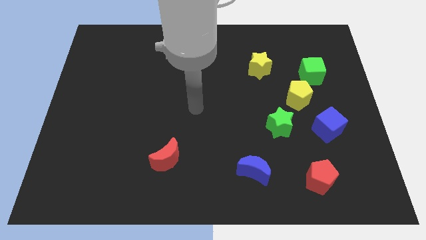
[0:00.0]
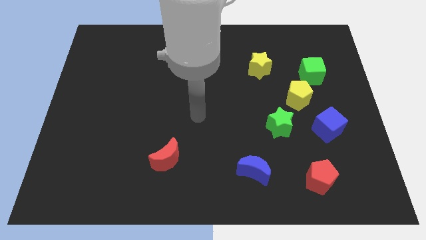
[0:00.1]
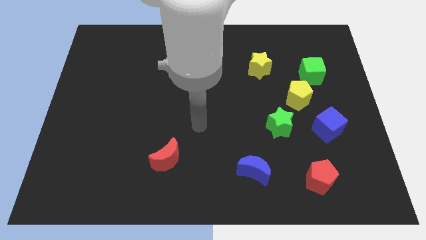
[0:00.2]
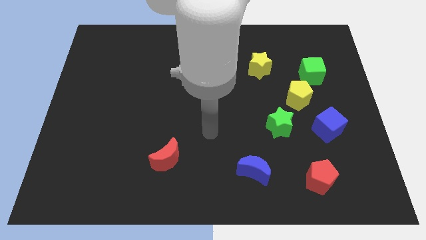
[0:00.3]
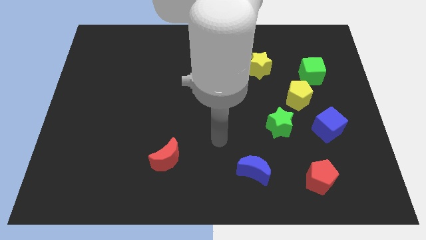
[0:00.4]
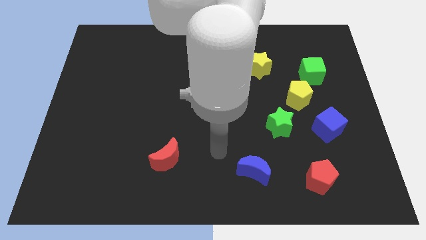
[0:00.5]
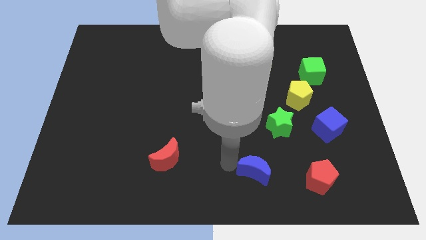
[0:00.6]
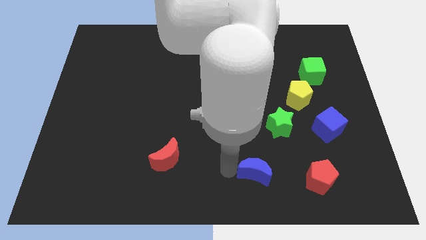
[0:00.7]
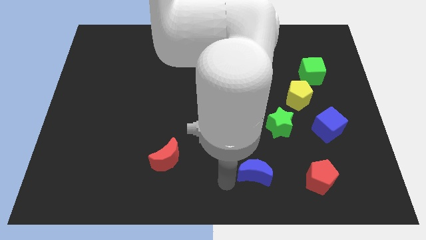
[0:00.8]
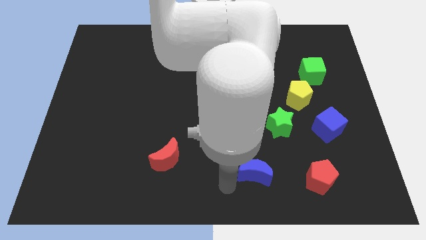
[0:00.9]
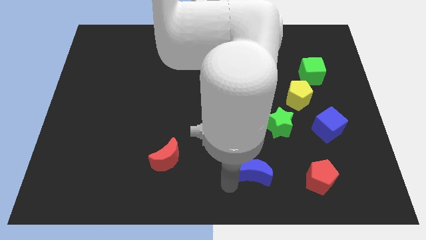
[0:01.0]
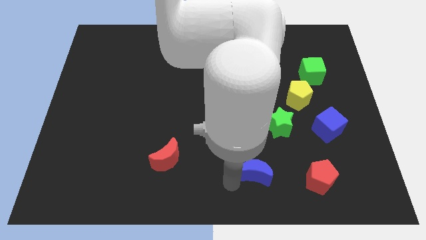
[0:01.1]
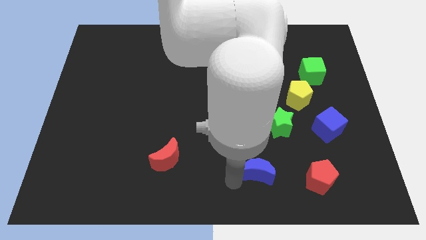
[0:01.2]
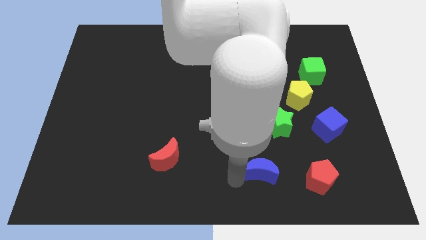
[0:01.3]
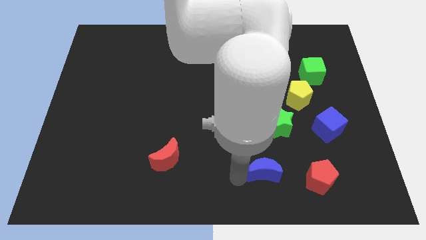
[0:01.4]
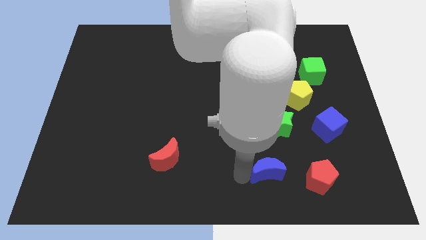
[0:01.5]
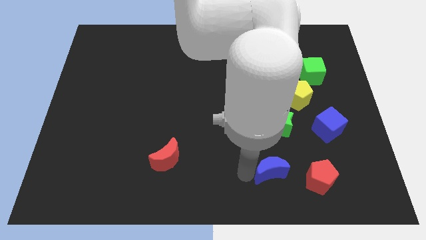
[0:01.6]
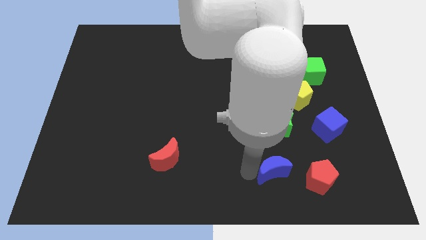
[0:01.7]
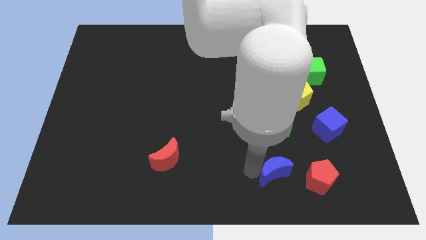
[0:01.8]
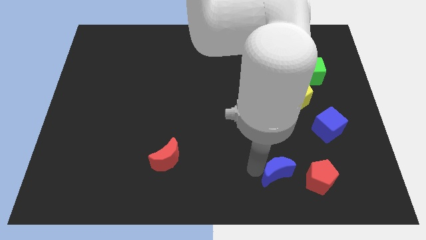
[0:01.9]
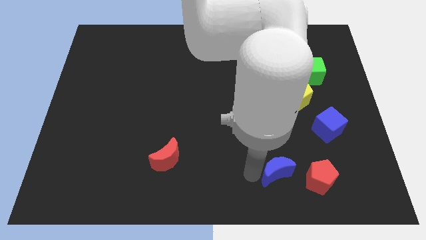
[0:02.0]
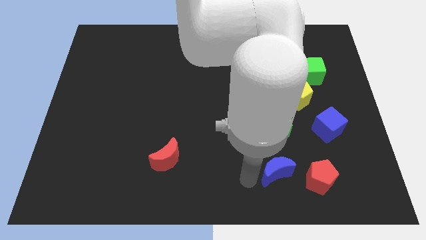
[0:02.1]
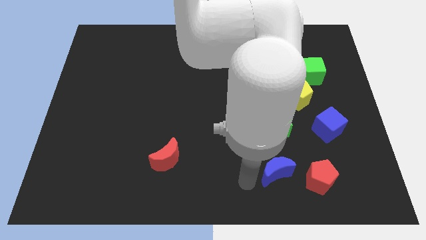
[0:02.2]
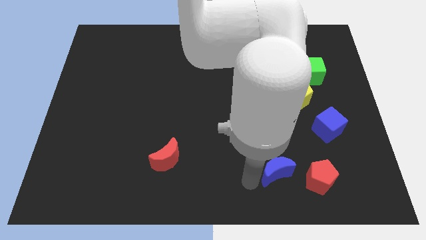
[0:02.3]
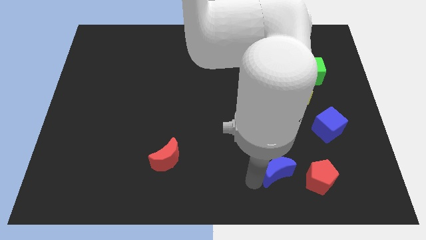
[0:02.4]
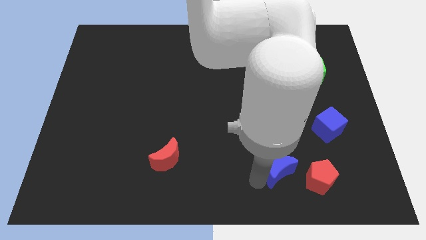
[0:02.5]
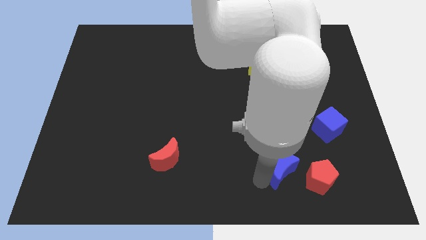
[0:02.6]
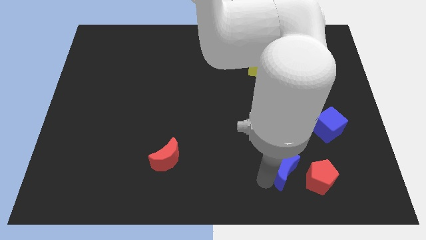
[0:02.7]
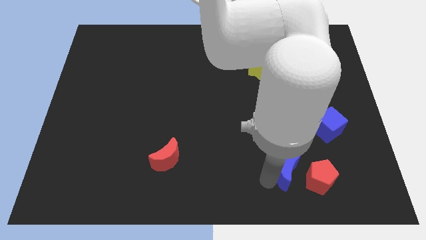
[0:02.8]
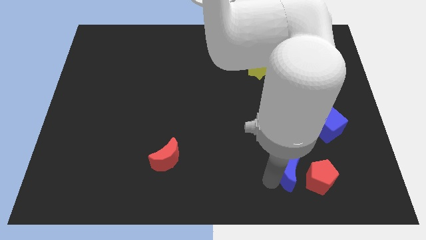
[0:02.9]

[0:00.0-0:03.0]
move the blue moon slightly right

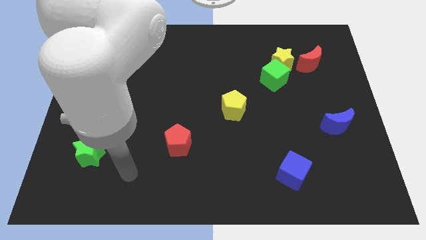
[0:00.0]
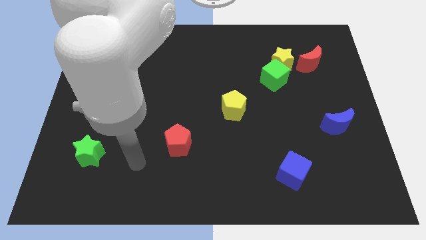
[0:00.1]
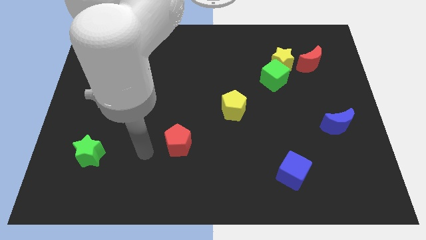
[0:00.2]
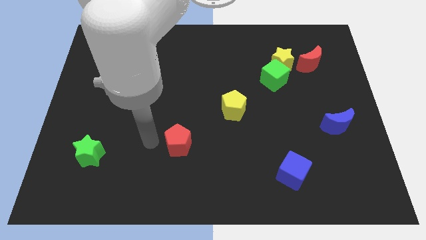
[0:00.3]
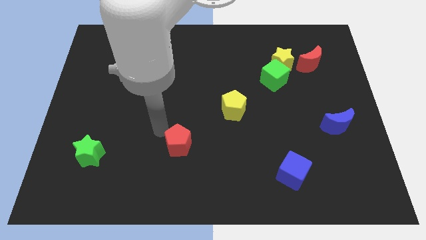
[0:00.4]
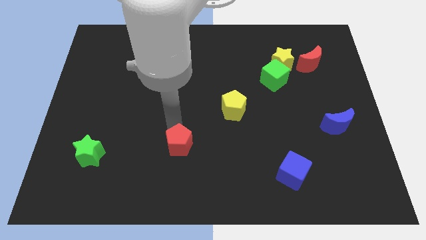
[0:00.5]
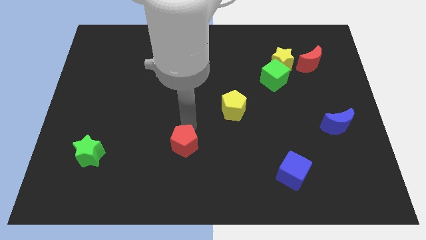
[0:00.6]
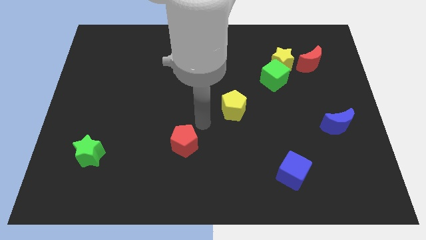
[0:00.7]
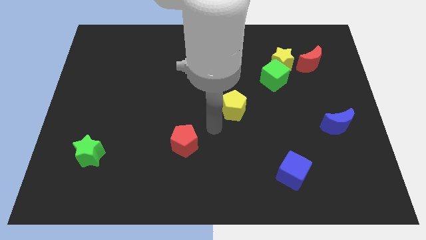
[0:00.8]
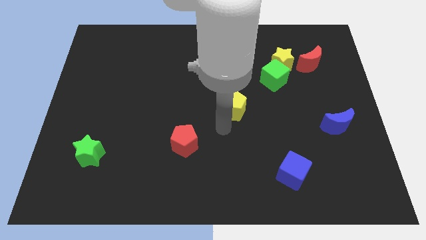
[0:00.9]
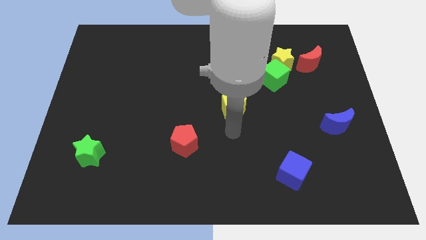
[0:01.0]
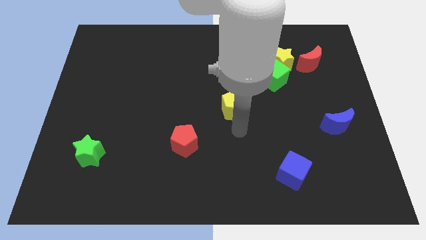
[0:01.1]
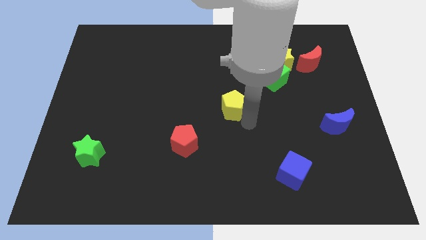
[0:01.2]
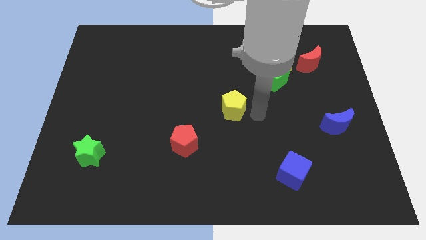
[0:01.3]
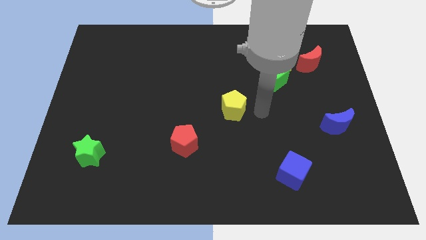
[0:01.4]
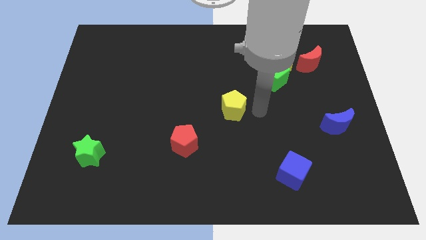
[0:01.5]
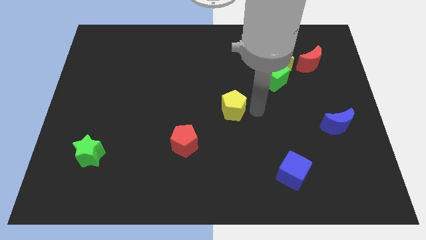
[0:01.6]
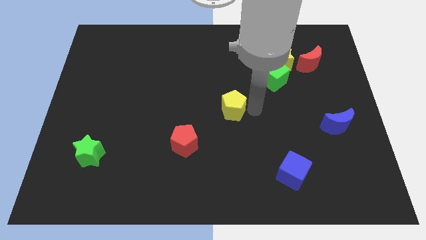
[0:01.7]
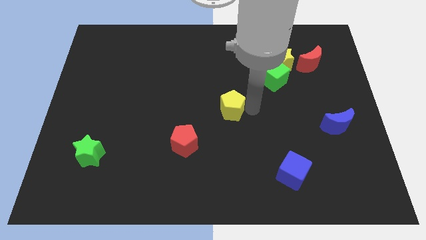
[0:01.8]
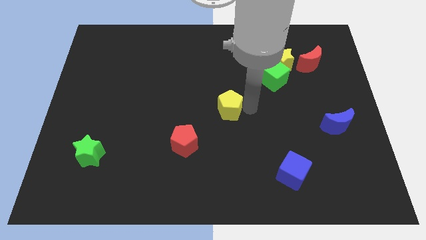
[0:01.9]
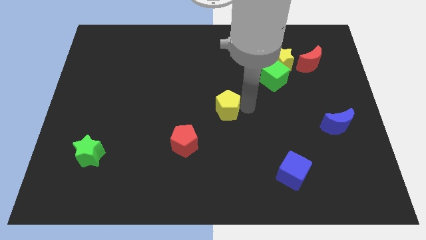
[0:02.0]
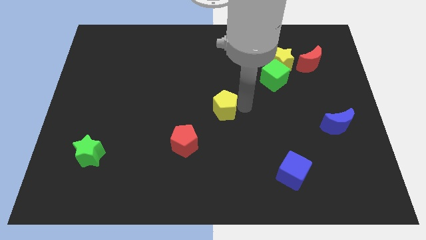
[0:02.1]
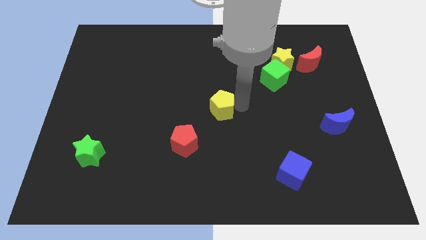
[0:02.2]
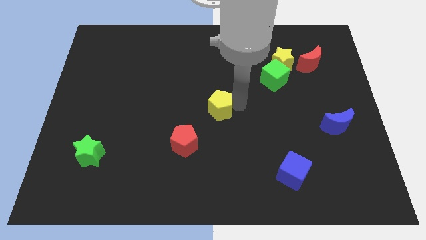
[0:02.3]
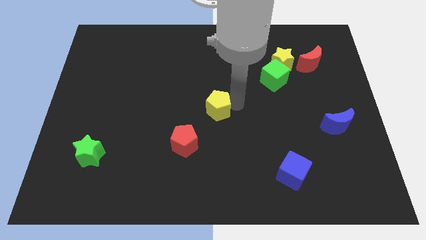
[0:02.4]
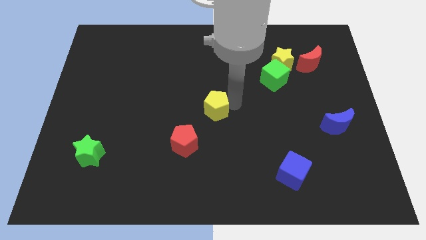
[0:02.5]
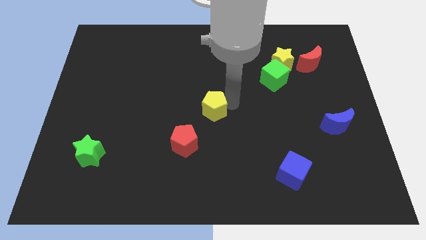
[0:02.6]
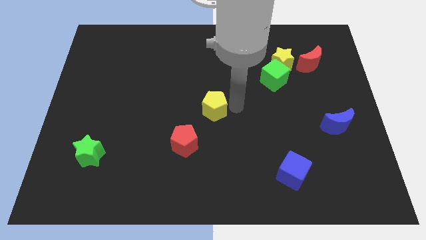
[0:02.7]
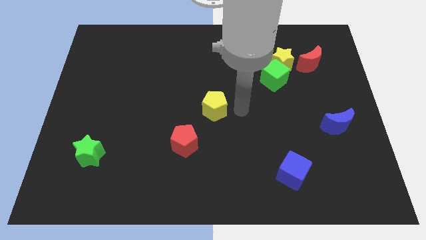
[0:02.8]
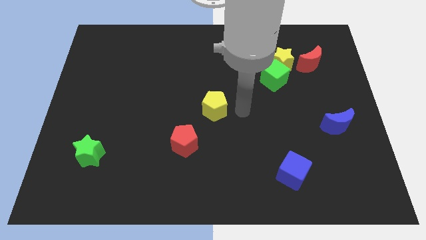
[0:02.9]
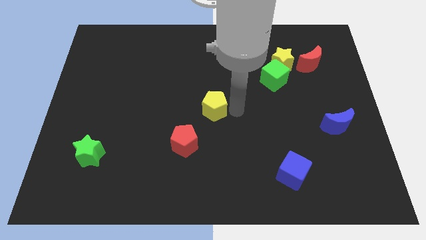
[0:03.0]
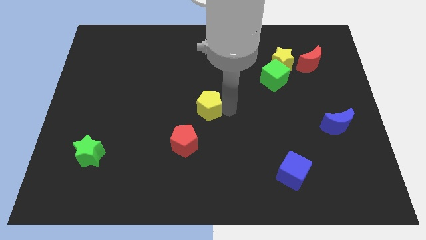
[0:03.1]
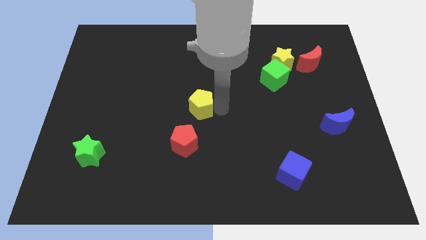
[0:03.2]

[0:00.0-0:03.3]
move the yellow pentagon to the left somewhat

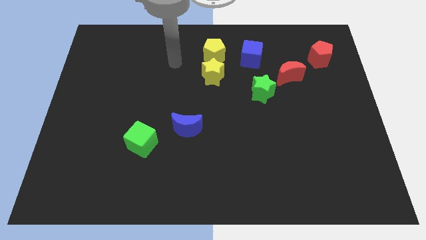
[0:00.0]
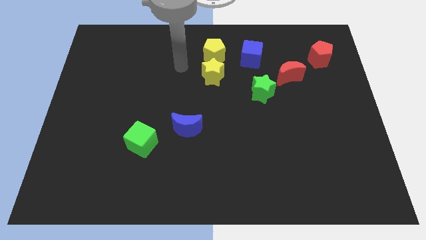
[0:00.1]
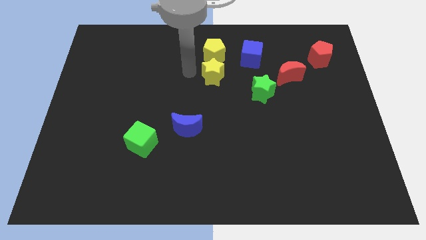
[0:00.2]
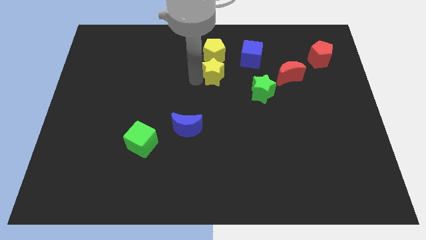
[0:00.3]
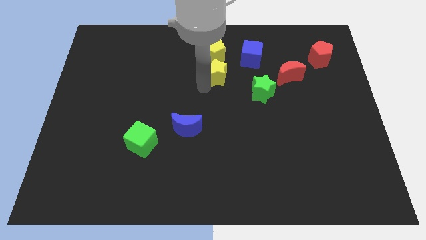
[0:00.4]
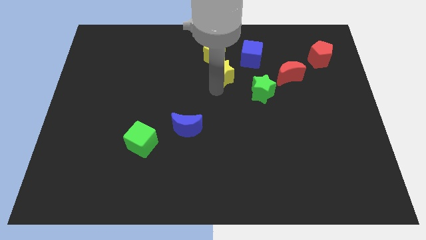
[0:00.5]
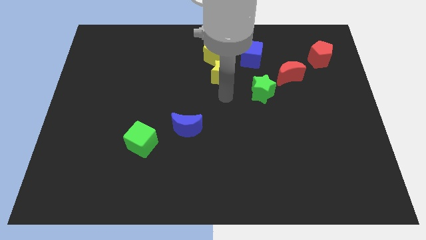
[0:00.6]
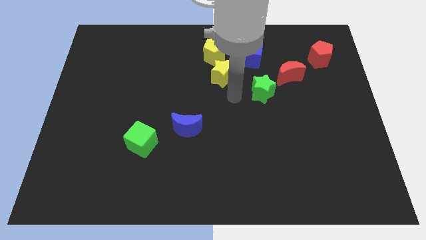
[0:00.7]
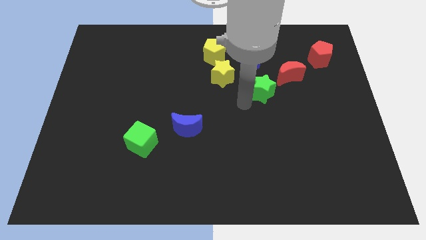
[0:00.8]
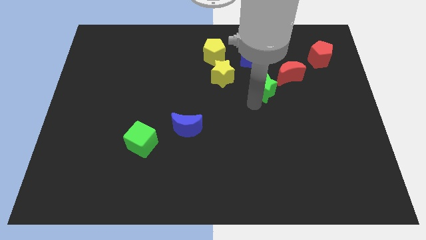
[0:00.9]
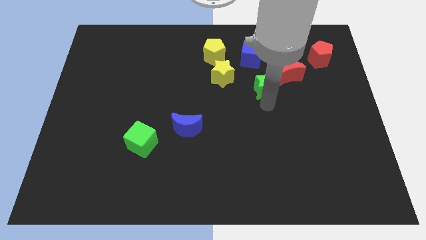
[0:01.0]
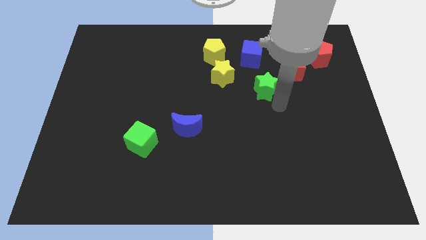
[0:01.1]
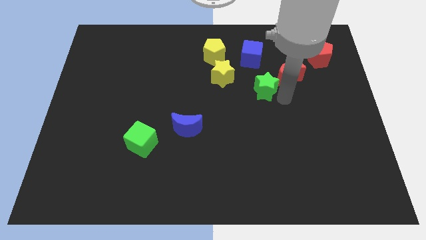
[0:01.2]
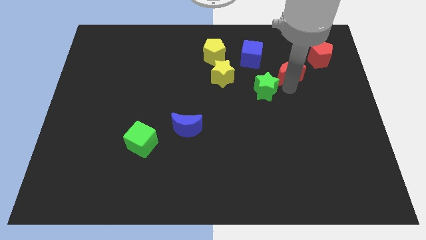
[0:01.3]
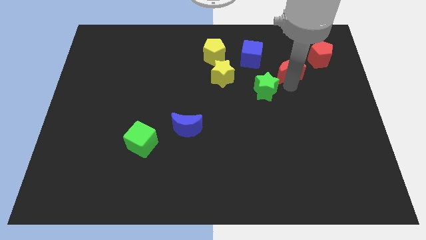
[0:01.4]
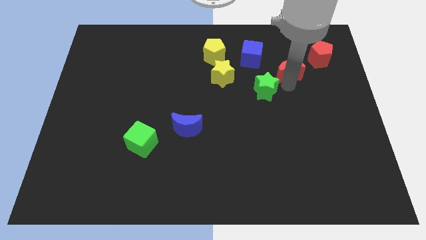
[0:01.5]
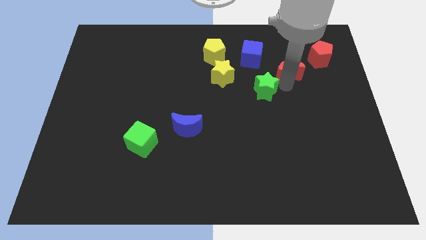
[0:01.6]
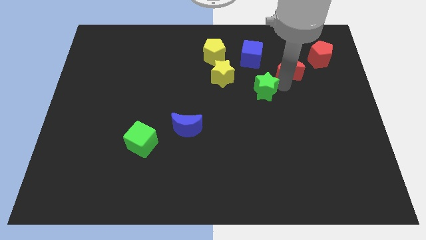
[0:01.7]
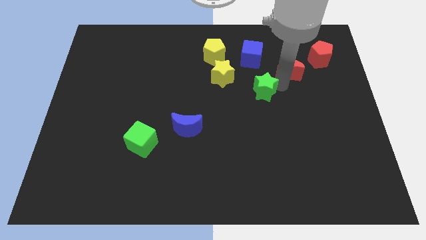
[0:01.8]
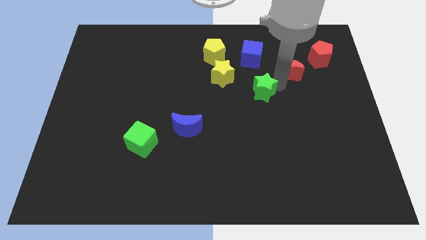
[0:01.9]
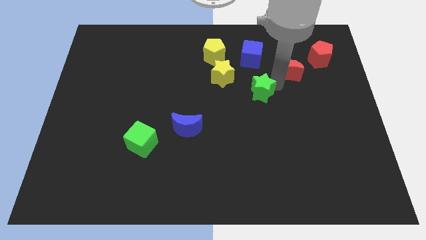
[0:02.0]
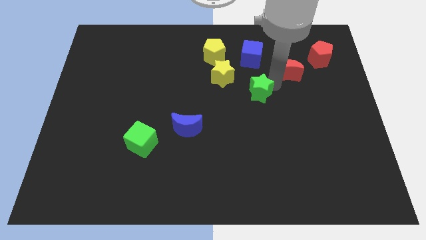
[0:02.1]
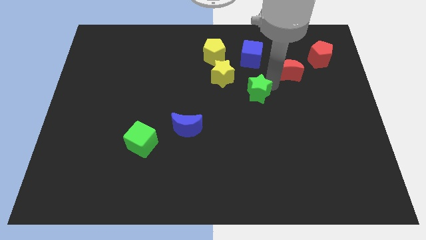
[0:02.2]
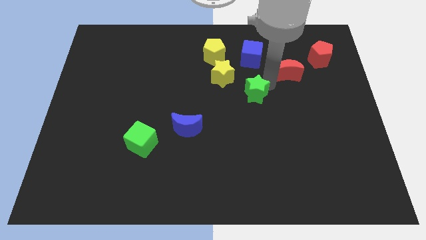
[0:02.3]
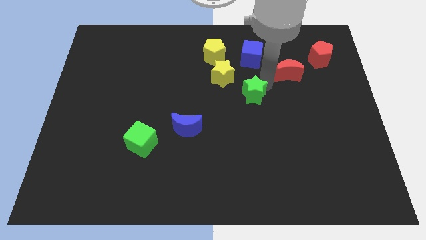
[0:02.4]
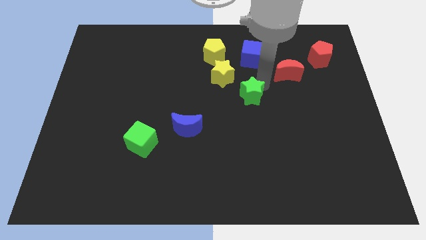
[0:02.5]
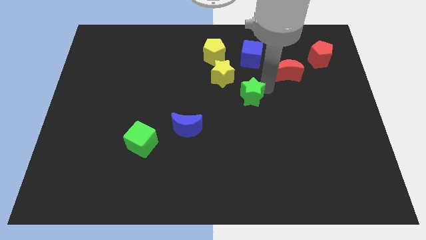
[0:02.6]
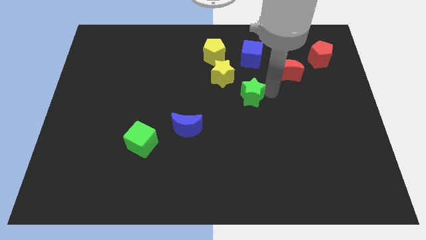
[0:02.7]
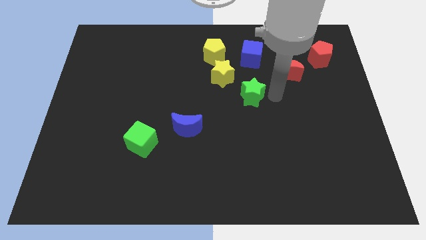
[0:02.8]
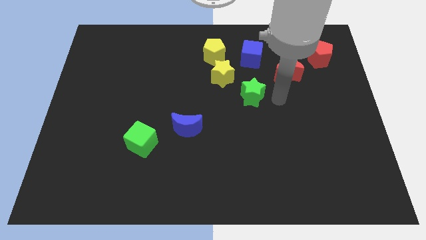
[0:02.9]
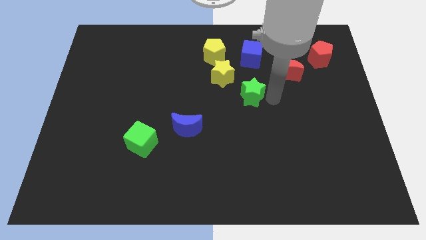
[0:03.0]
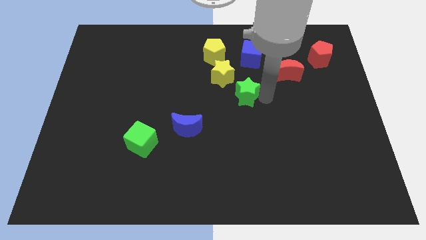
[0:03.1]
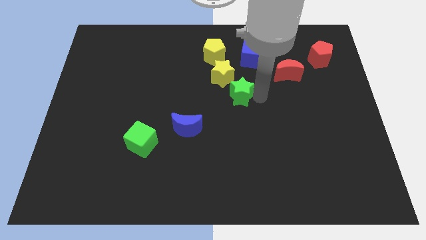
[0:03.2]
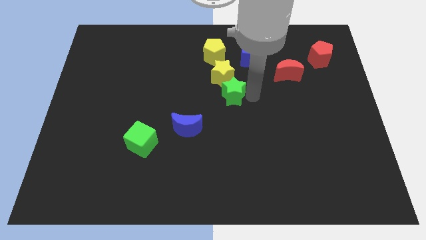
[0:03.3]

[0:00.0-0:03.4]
slightly push the green star left
